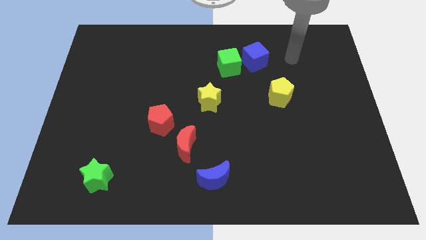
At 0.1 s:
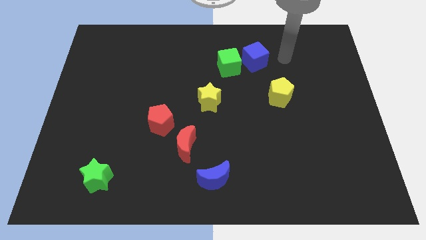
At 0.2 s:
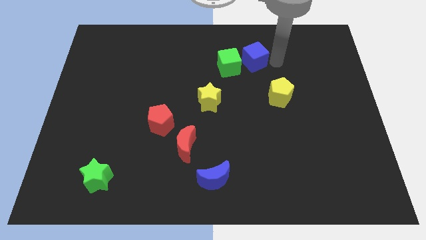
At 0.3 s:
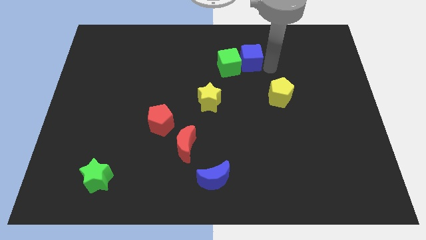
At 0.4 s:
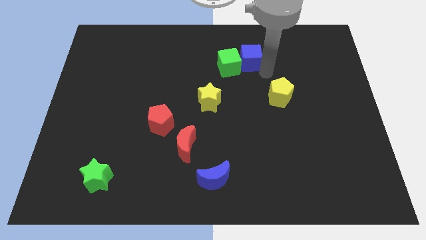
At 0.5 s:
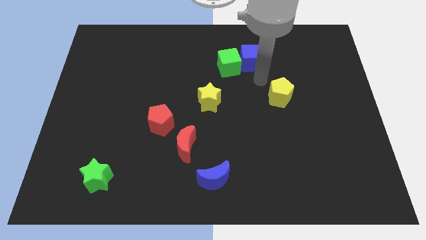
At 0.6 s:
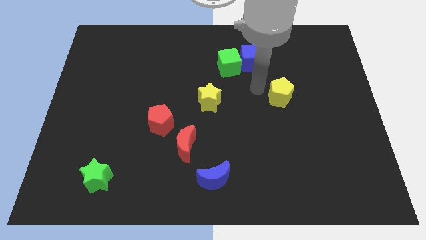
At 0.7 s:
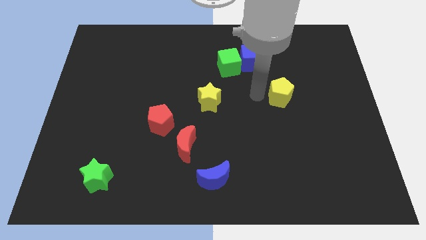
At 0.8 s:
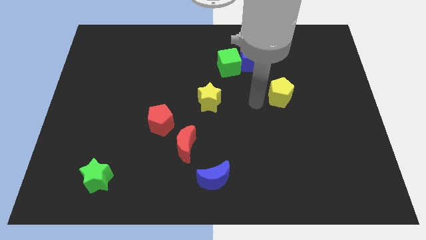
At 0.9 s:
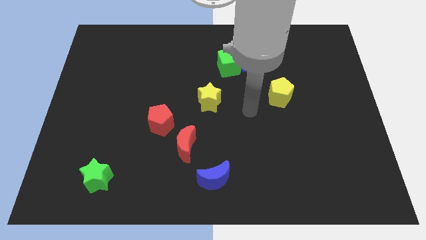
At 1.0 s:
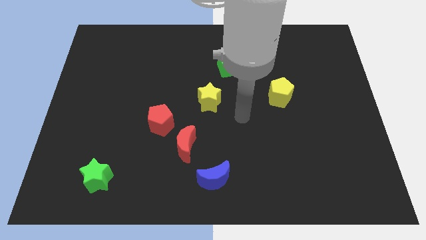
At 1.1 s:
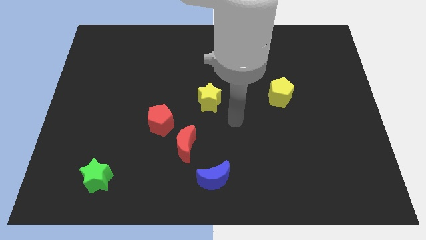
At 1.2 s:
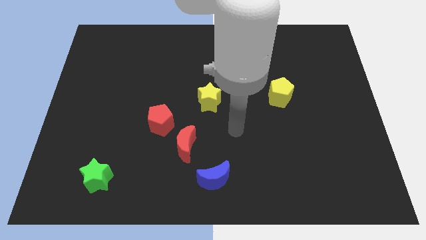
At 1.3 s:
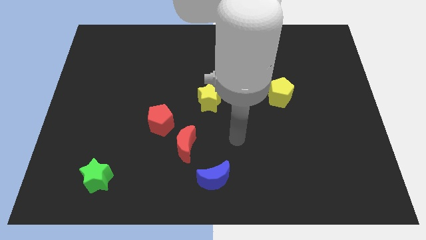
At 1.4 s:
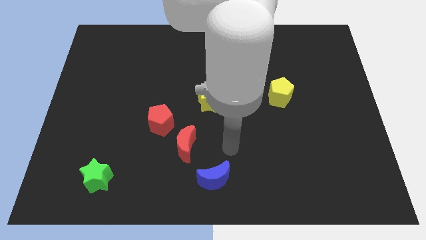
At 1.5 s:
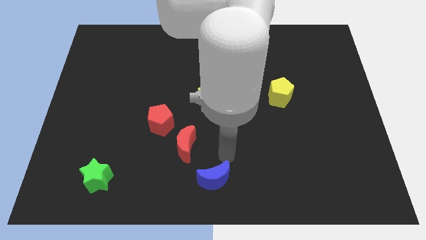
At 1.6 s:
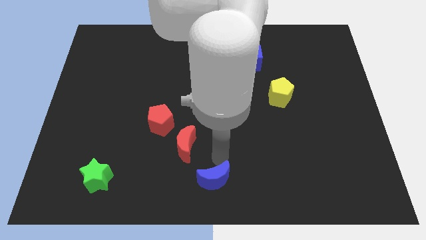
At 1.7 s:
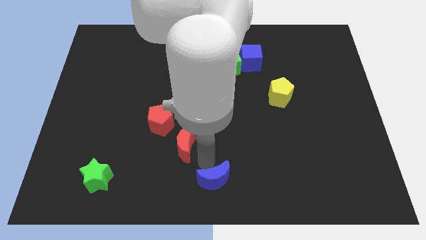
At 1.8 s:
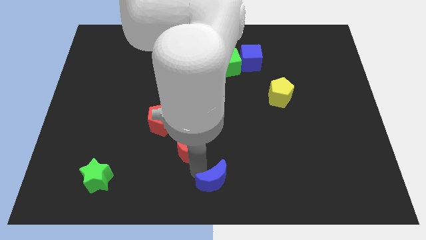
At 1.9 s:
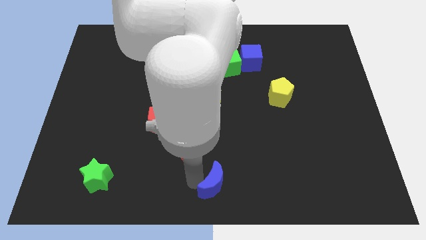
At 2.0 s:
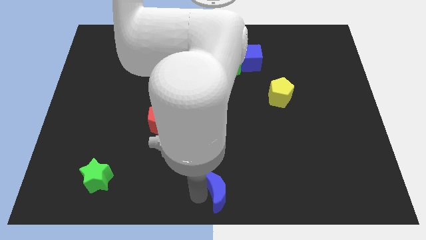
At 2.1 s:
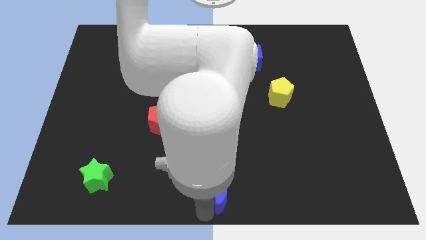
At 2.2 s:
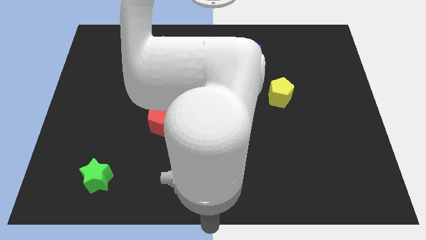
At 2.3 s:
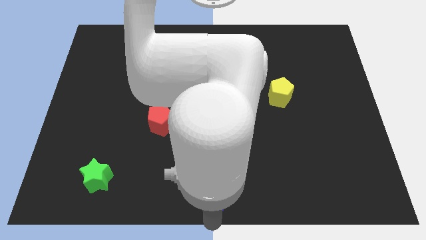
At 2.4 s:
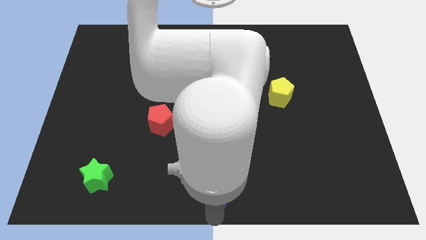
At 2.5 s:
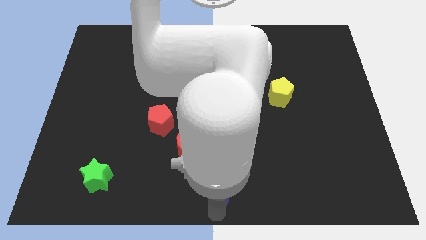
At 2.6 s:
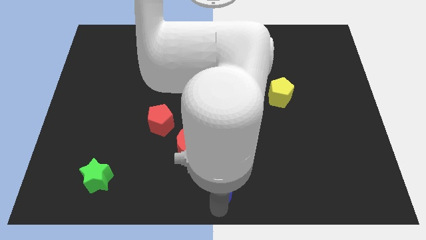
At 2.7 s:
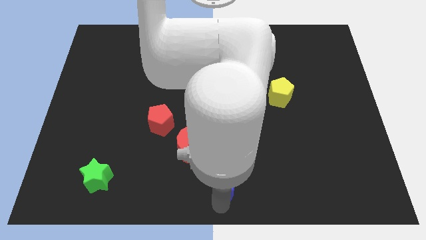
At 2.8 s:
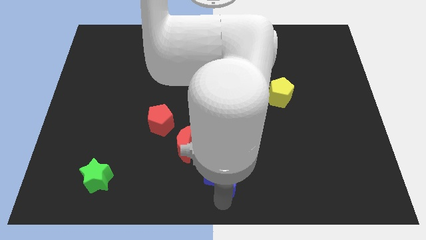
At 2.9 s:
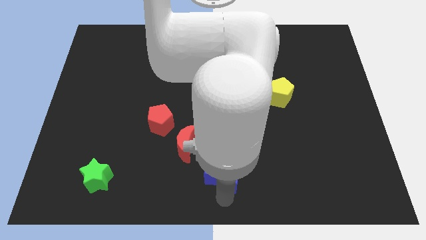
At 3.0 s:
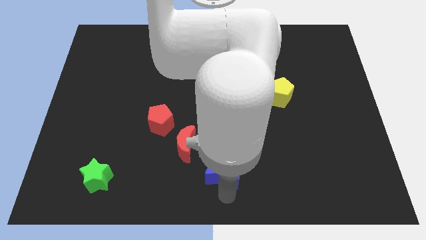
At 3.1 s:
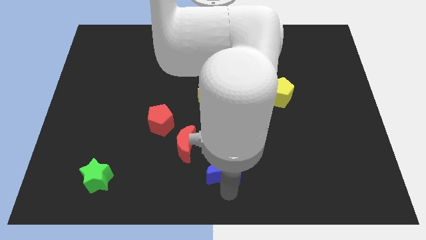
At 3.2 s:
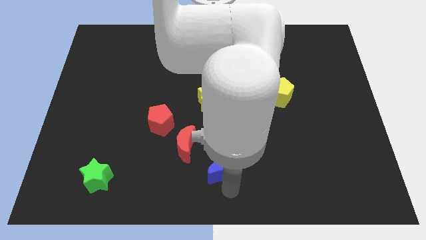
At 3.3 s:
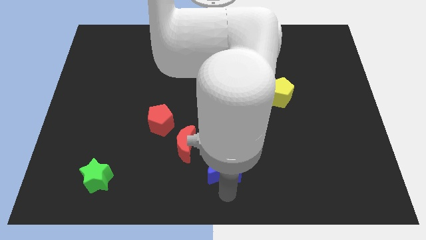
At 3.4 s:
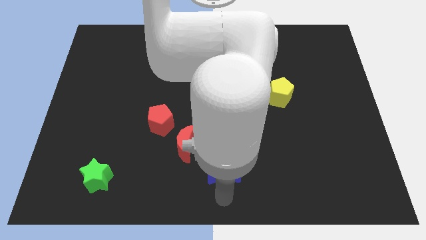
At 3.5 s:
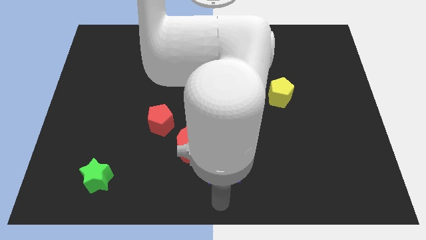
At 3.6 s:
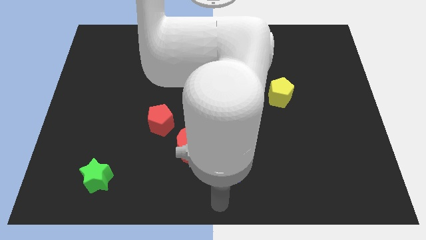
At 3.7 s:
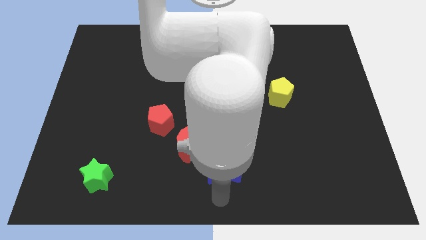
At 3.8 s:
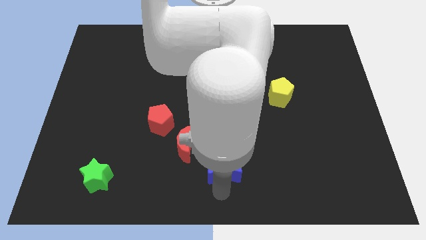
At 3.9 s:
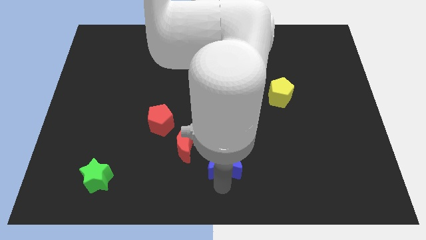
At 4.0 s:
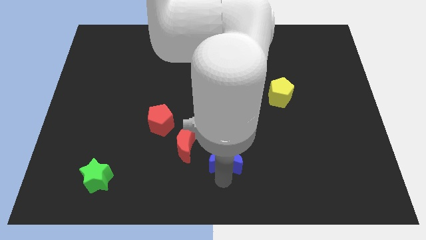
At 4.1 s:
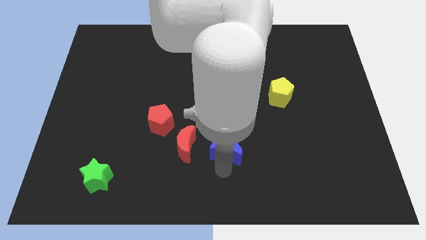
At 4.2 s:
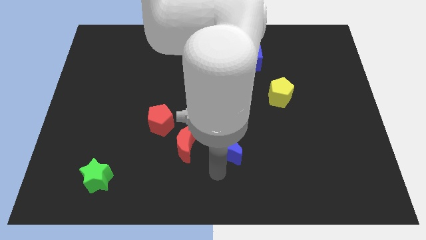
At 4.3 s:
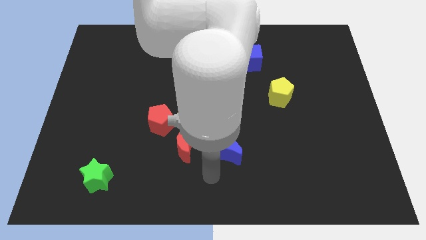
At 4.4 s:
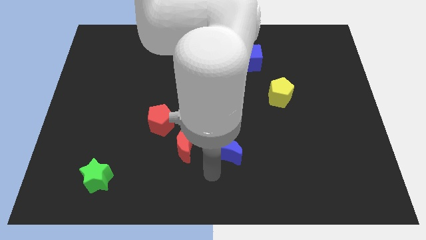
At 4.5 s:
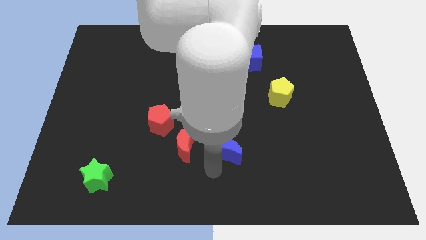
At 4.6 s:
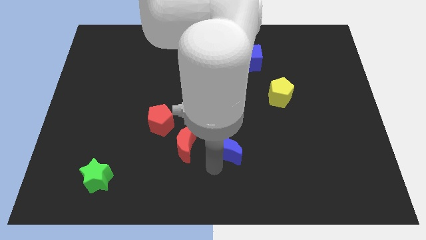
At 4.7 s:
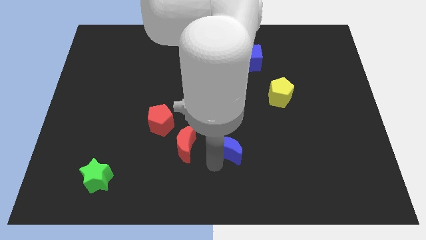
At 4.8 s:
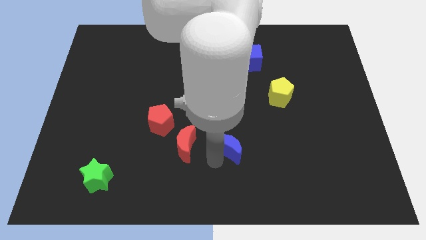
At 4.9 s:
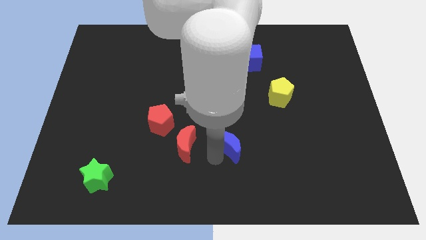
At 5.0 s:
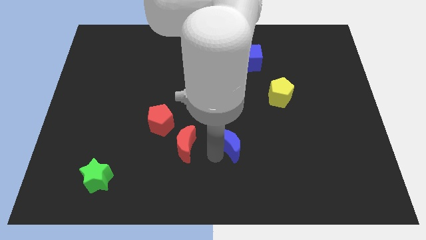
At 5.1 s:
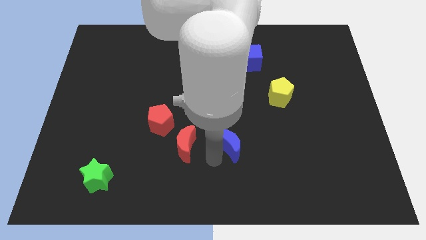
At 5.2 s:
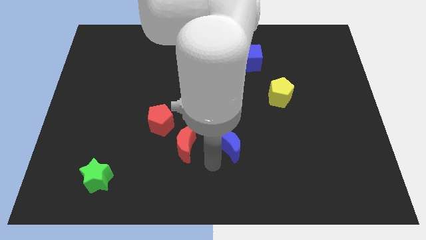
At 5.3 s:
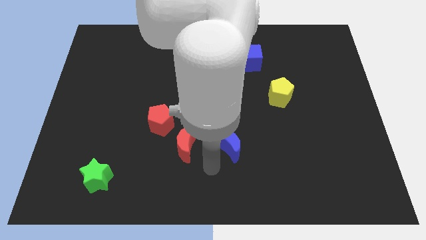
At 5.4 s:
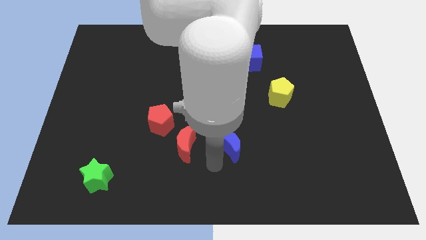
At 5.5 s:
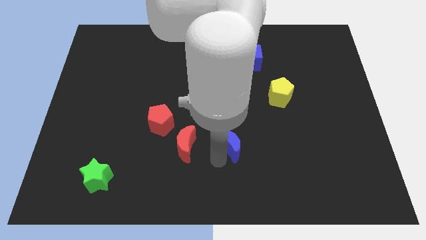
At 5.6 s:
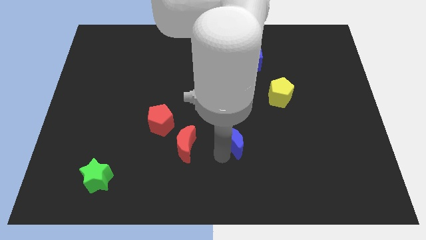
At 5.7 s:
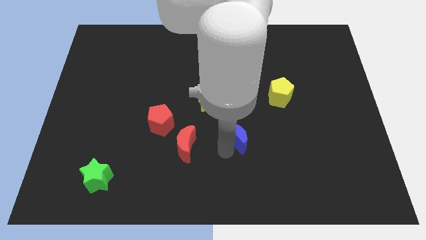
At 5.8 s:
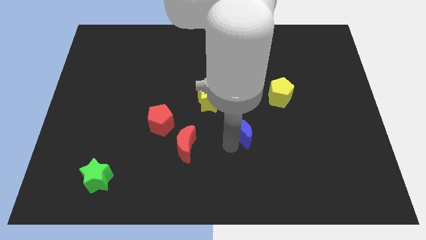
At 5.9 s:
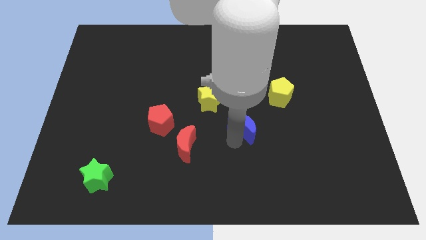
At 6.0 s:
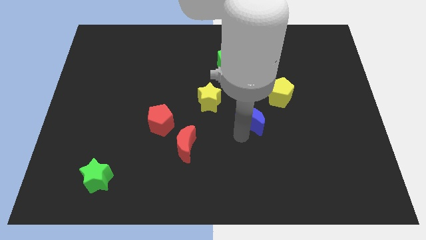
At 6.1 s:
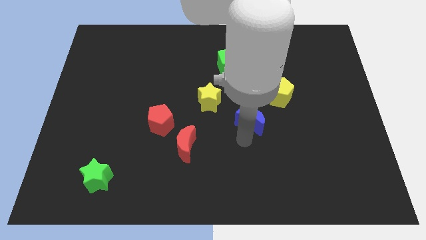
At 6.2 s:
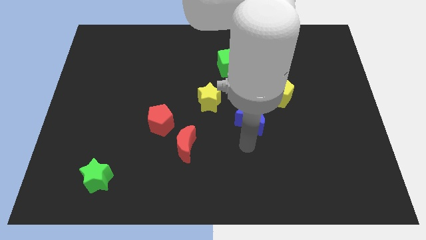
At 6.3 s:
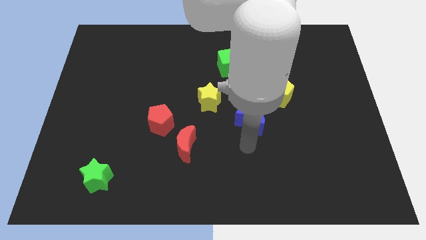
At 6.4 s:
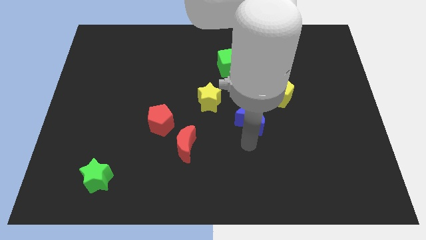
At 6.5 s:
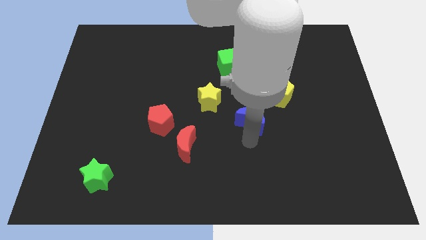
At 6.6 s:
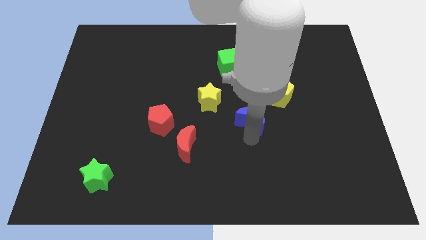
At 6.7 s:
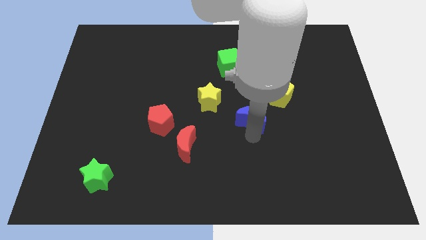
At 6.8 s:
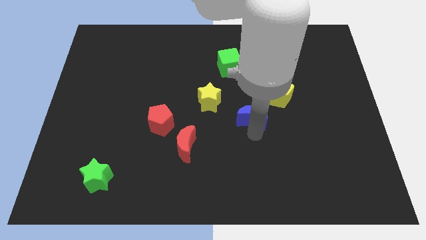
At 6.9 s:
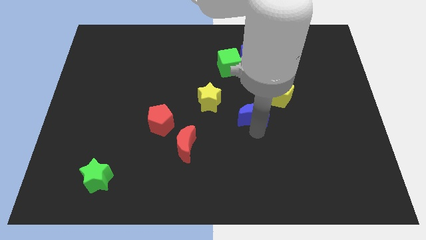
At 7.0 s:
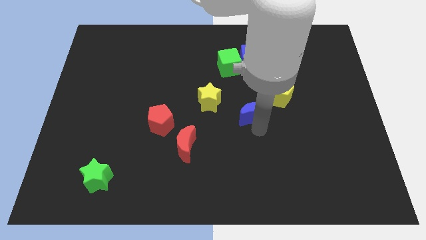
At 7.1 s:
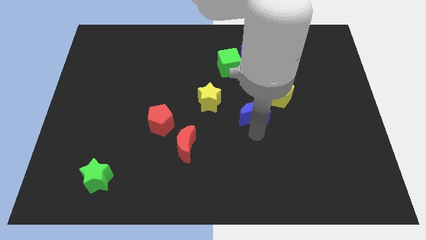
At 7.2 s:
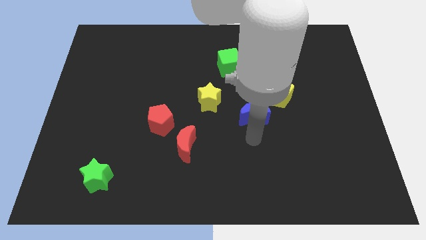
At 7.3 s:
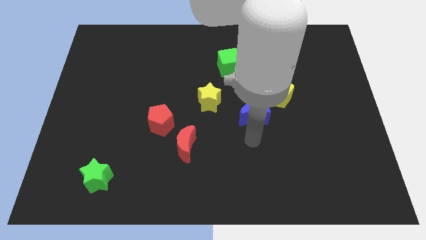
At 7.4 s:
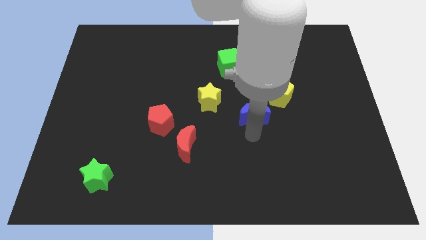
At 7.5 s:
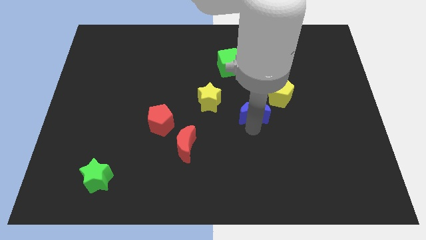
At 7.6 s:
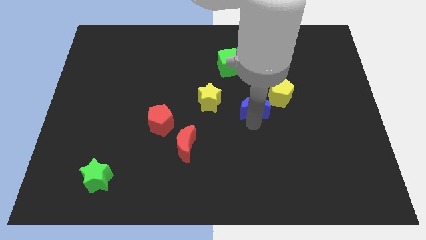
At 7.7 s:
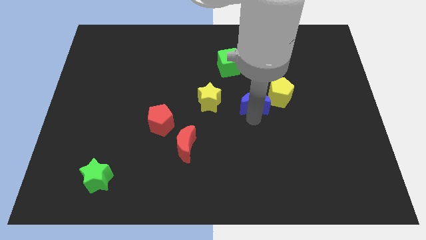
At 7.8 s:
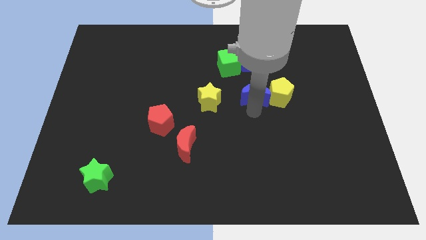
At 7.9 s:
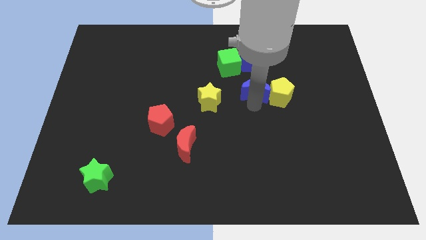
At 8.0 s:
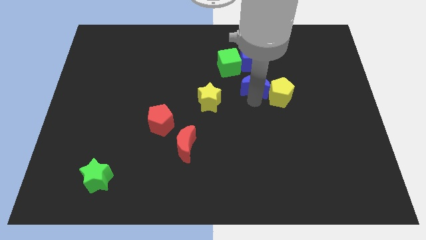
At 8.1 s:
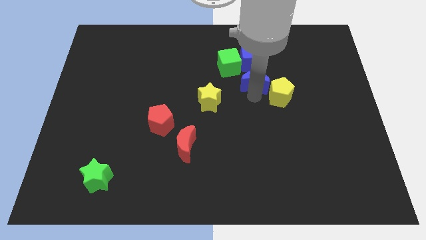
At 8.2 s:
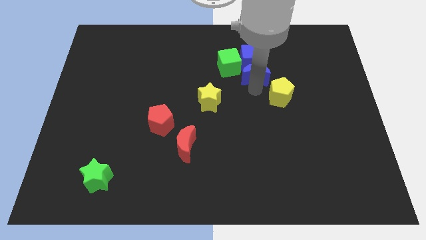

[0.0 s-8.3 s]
slide the blue moon towards the blue cube
